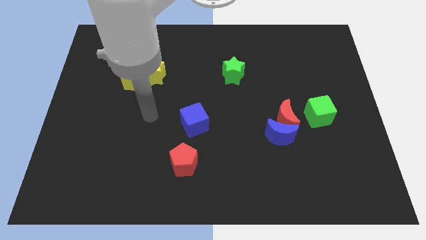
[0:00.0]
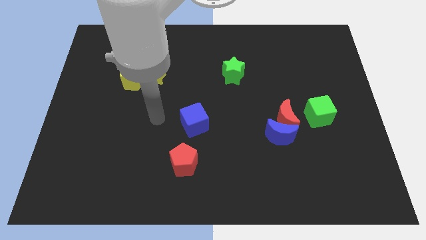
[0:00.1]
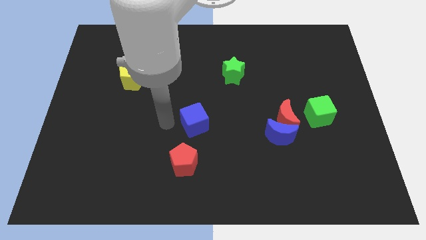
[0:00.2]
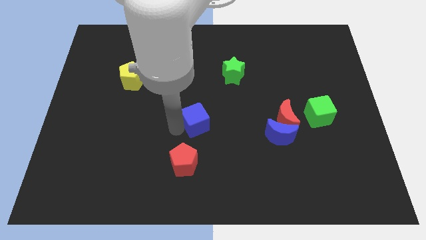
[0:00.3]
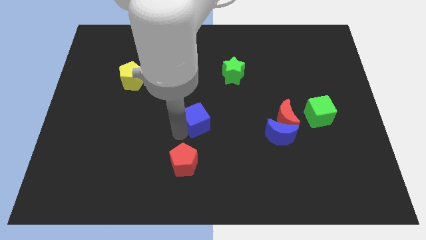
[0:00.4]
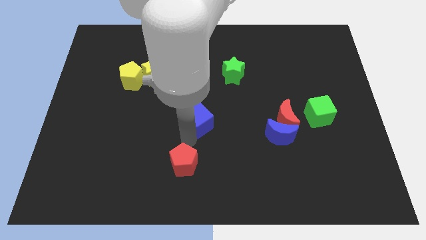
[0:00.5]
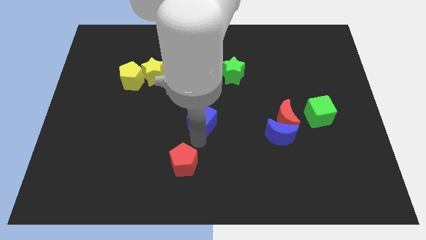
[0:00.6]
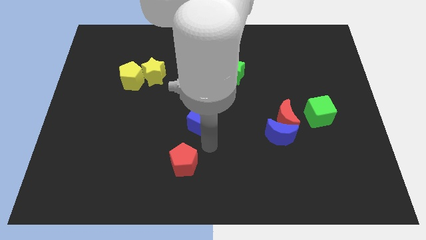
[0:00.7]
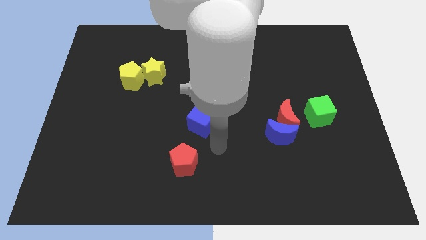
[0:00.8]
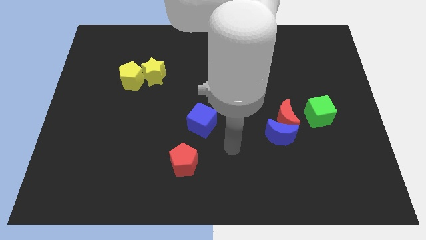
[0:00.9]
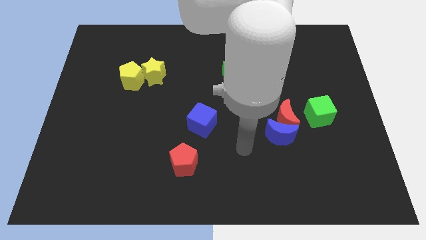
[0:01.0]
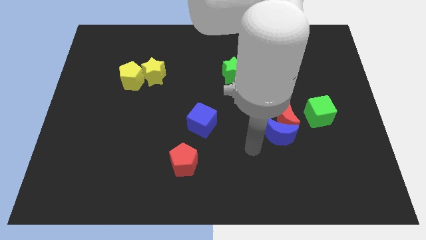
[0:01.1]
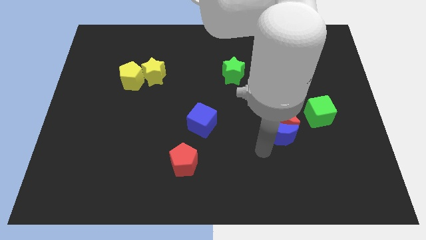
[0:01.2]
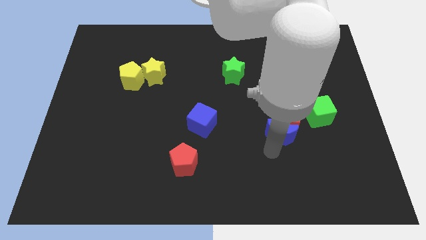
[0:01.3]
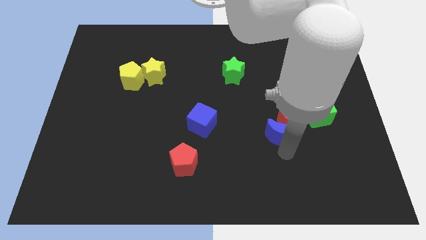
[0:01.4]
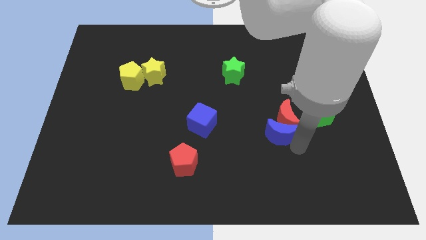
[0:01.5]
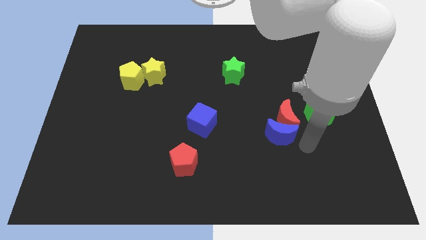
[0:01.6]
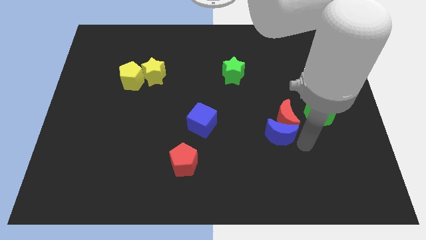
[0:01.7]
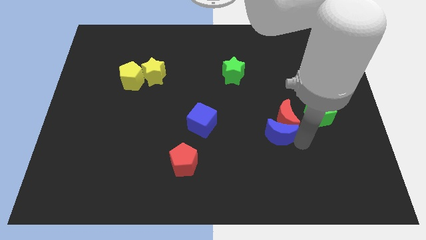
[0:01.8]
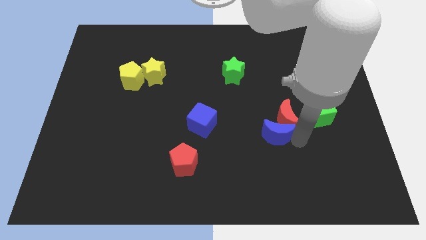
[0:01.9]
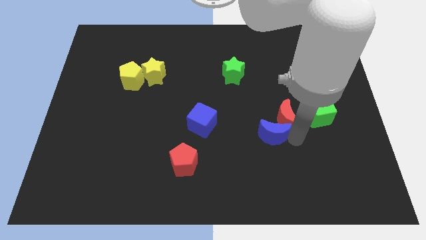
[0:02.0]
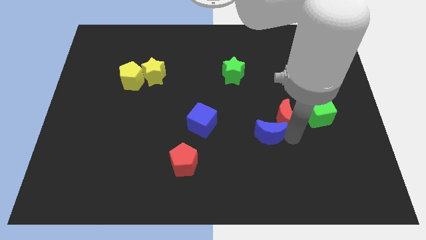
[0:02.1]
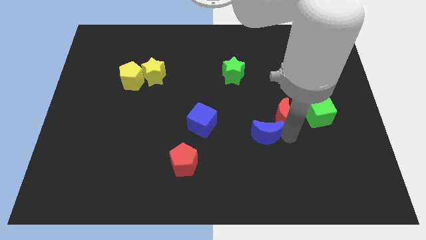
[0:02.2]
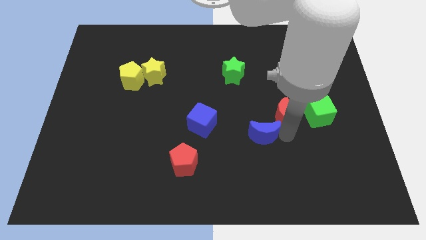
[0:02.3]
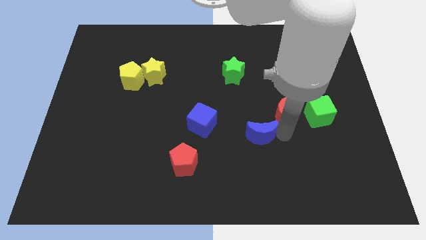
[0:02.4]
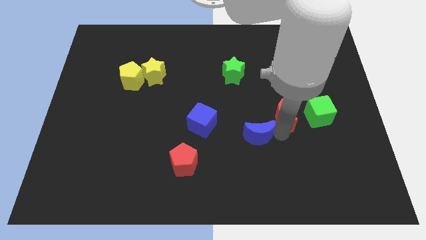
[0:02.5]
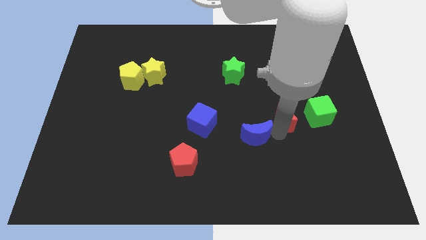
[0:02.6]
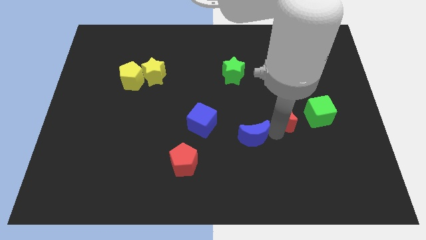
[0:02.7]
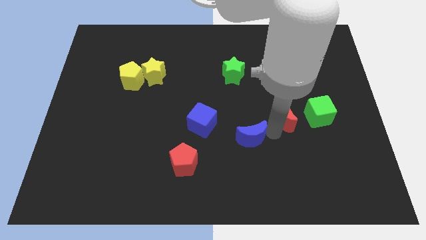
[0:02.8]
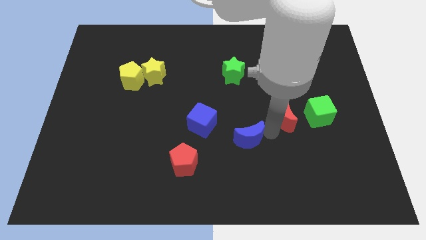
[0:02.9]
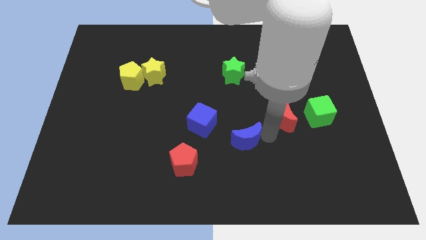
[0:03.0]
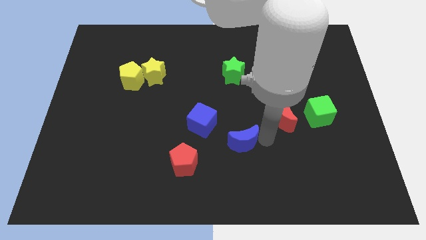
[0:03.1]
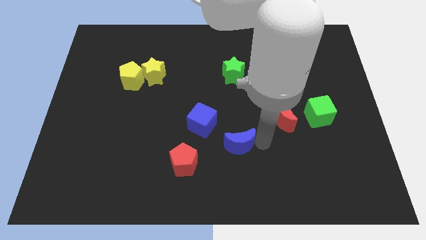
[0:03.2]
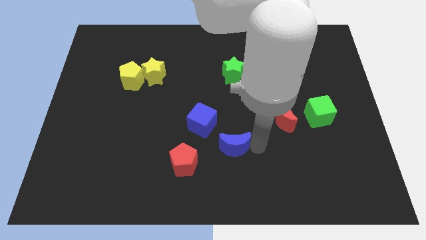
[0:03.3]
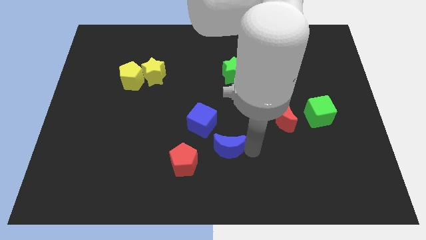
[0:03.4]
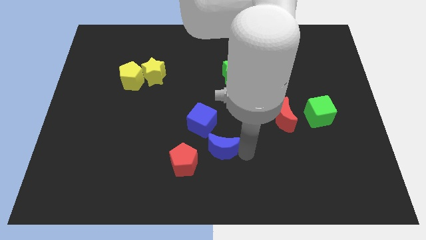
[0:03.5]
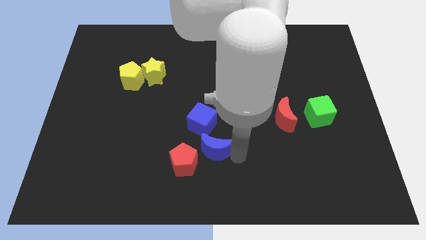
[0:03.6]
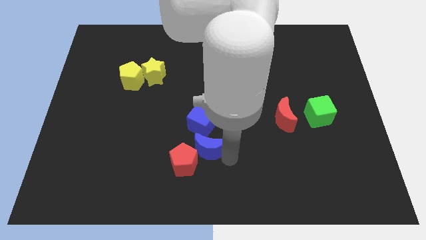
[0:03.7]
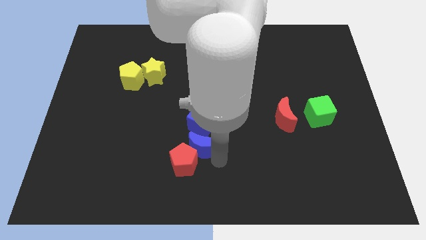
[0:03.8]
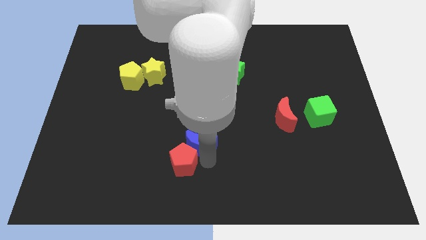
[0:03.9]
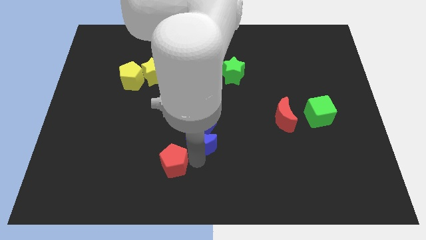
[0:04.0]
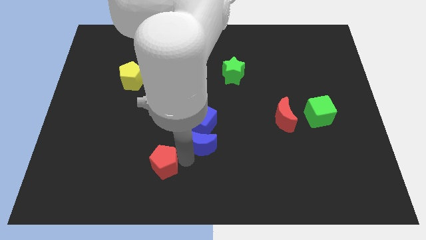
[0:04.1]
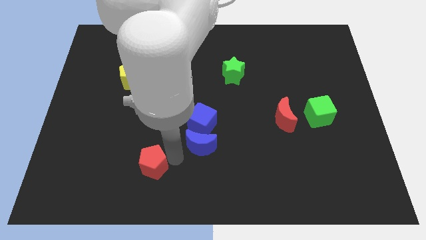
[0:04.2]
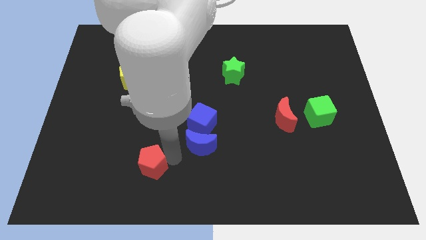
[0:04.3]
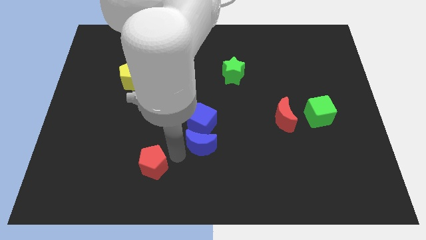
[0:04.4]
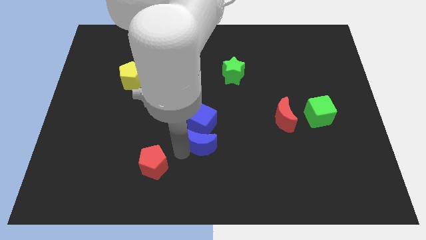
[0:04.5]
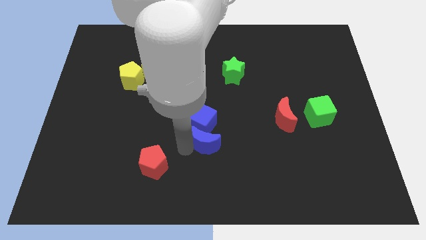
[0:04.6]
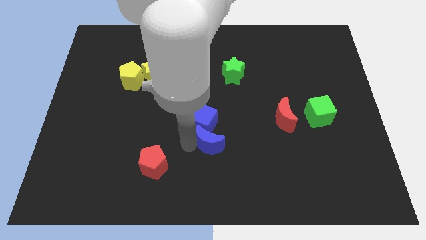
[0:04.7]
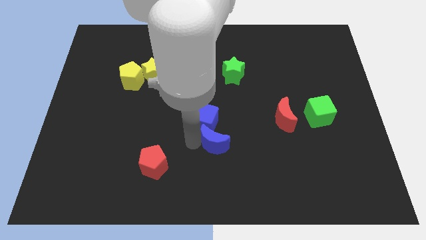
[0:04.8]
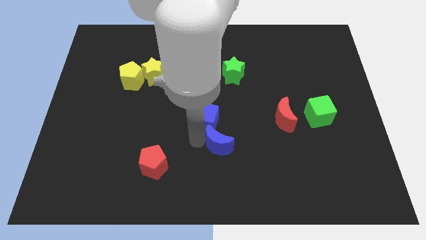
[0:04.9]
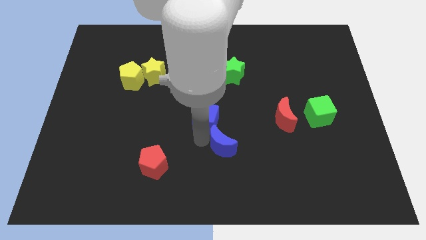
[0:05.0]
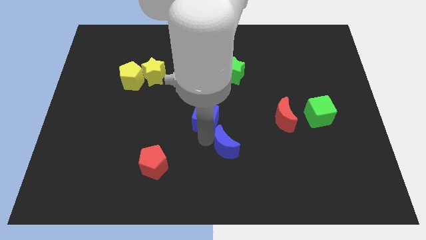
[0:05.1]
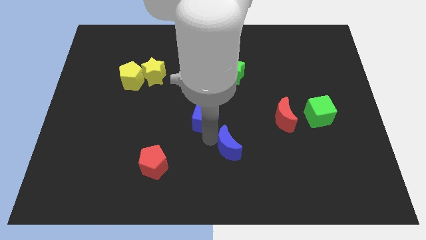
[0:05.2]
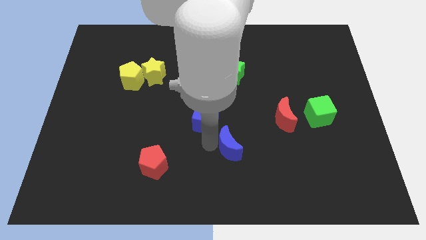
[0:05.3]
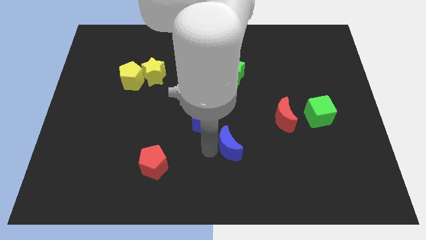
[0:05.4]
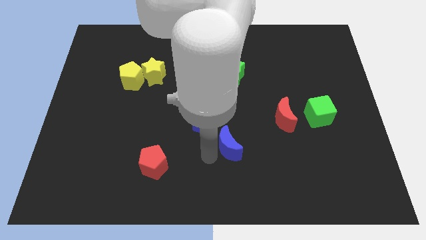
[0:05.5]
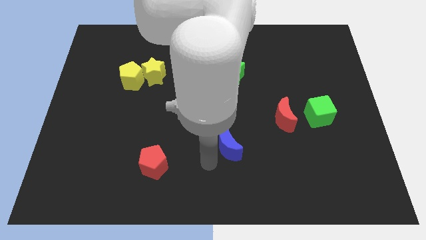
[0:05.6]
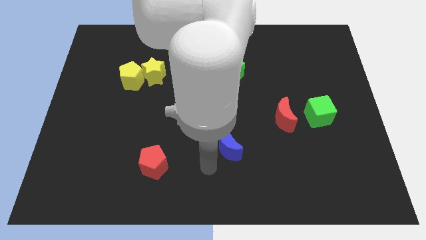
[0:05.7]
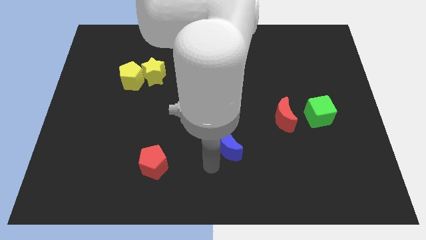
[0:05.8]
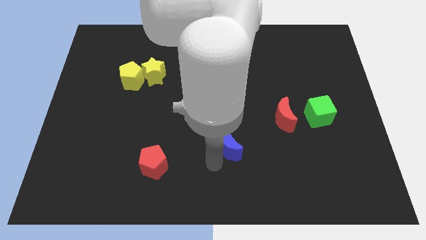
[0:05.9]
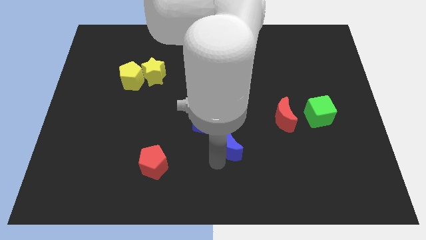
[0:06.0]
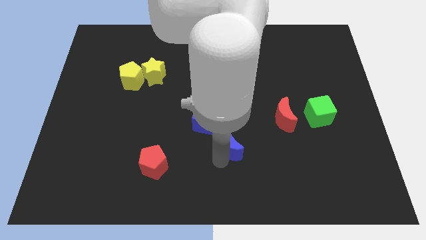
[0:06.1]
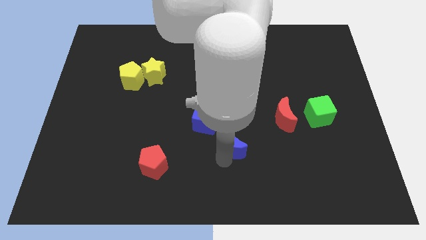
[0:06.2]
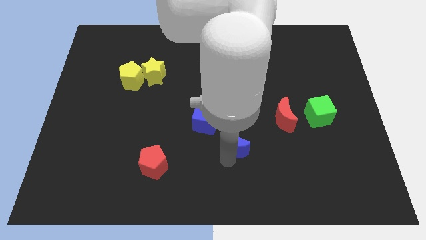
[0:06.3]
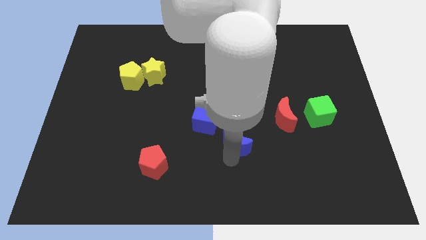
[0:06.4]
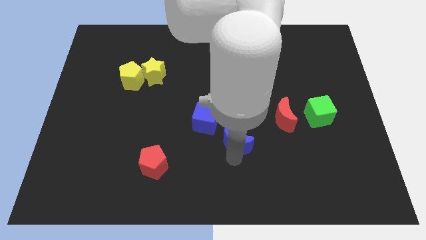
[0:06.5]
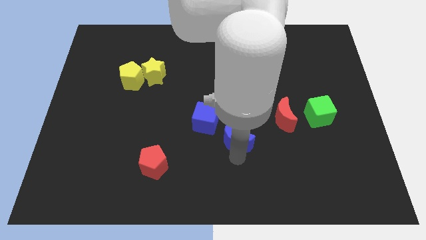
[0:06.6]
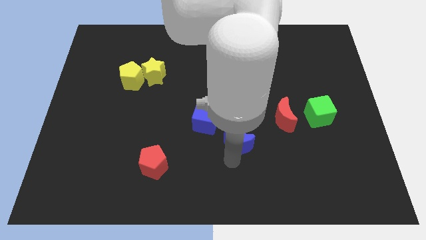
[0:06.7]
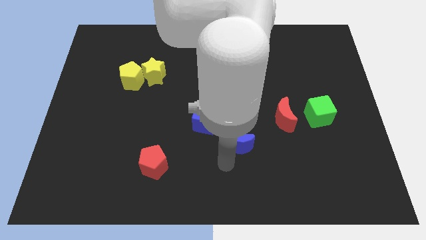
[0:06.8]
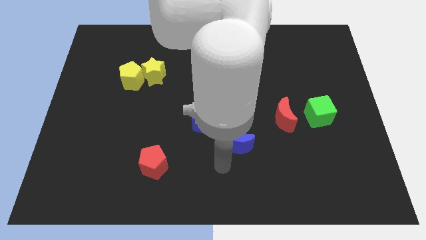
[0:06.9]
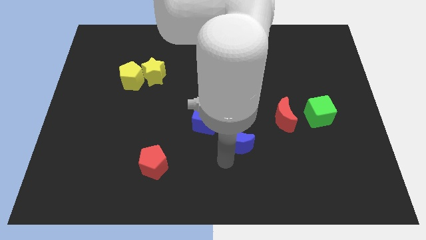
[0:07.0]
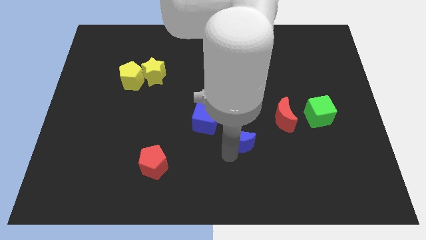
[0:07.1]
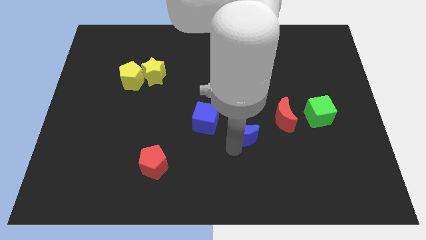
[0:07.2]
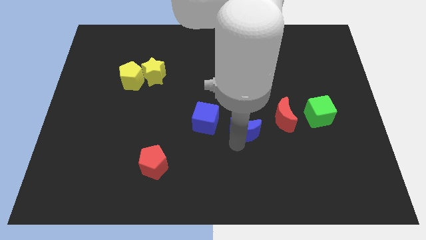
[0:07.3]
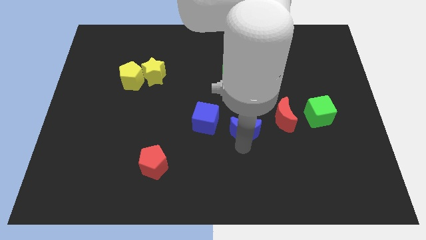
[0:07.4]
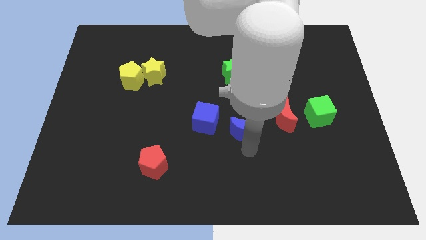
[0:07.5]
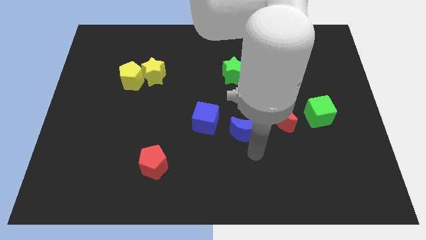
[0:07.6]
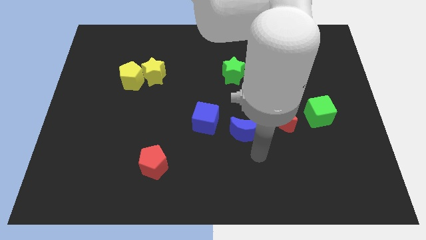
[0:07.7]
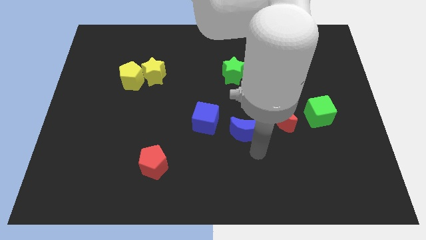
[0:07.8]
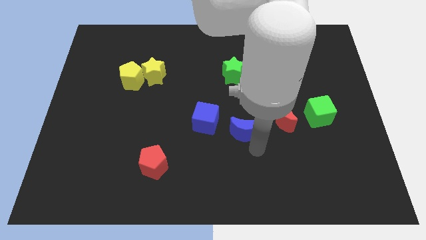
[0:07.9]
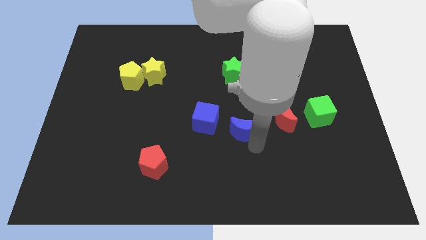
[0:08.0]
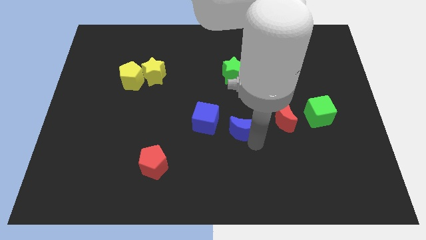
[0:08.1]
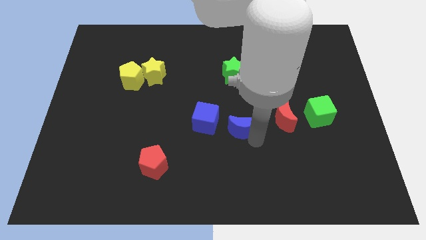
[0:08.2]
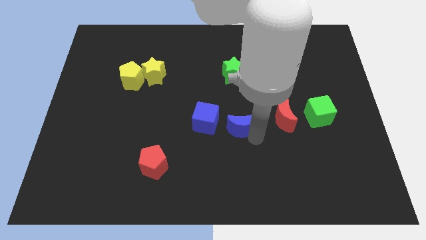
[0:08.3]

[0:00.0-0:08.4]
slide the blue moon upwards and then to the left a bit

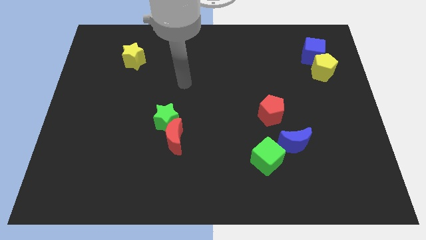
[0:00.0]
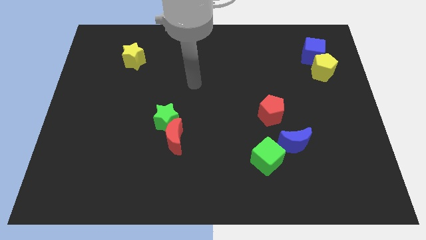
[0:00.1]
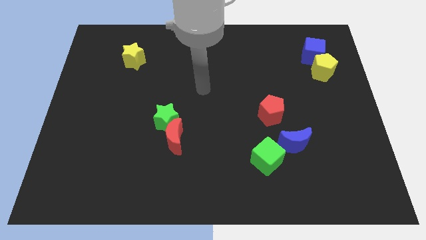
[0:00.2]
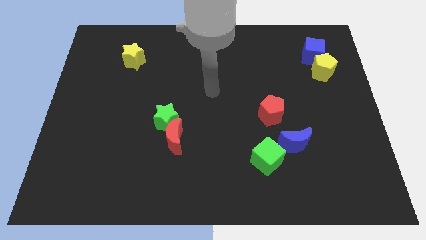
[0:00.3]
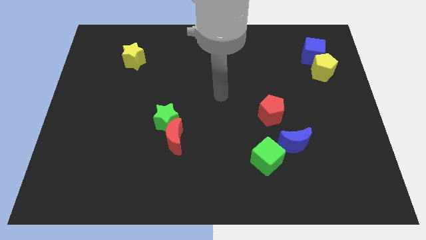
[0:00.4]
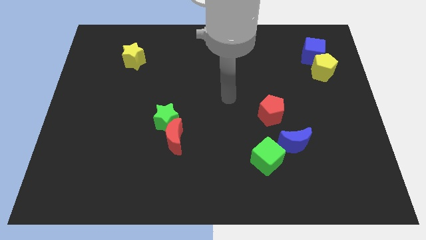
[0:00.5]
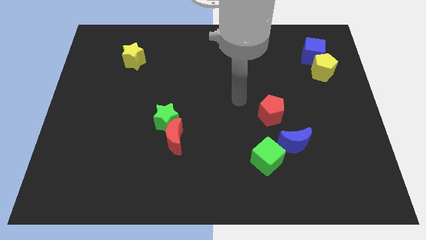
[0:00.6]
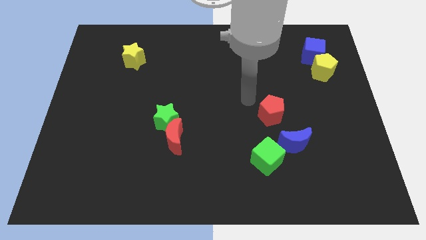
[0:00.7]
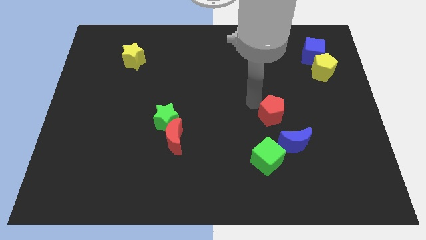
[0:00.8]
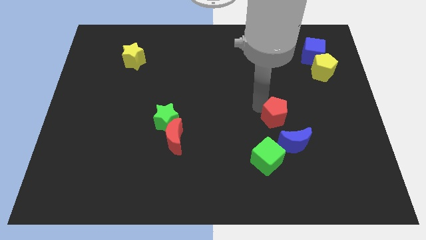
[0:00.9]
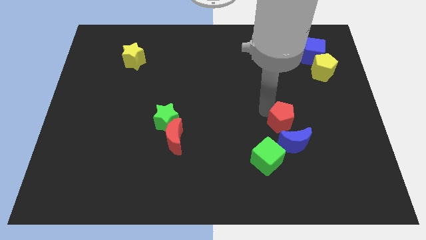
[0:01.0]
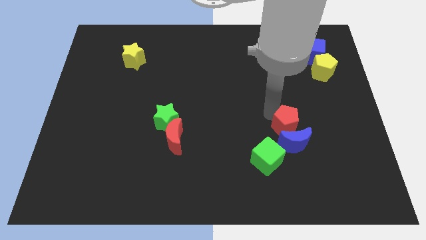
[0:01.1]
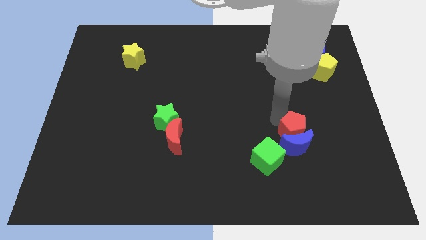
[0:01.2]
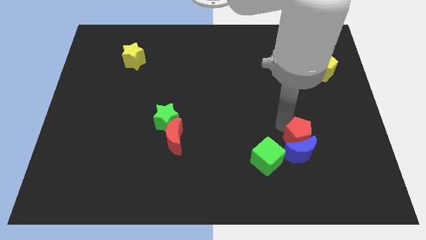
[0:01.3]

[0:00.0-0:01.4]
slide the red pentagon diagonally downwards and right a bit
